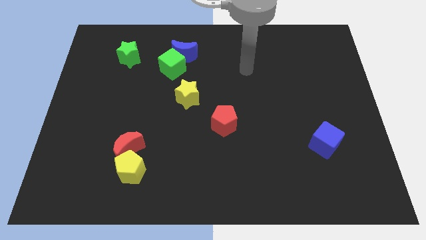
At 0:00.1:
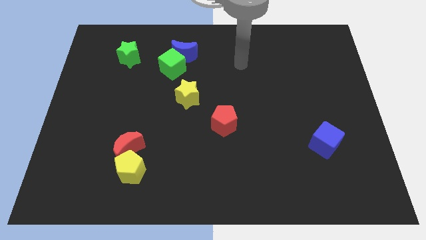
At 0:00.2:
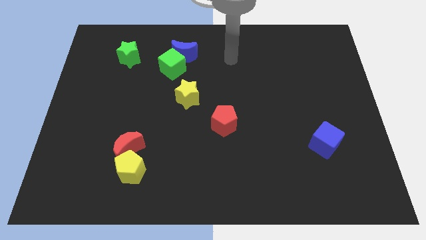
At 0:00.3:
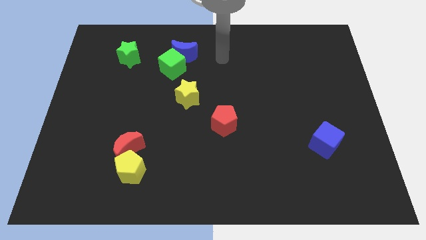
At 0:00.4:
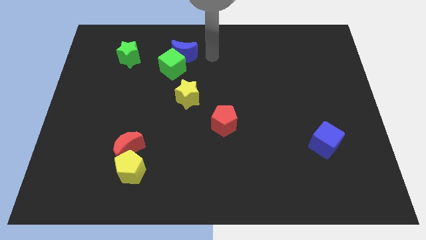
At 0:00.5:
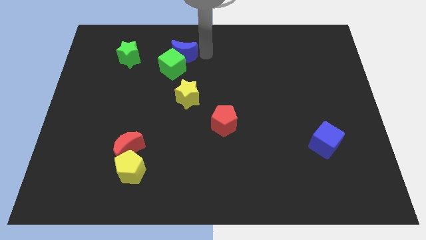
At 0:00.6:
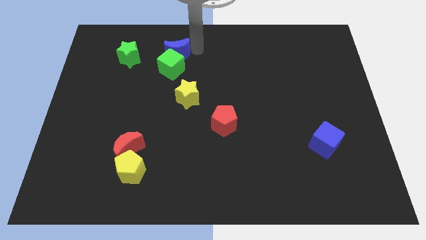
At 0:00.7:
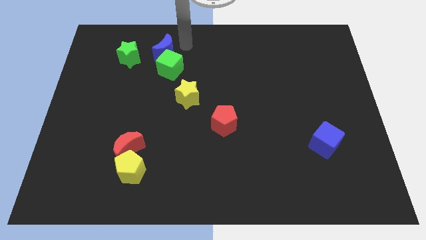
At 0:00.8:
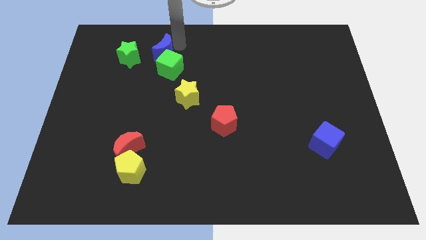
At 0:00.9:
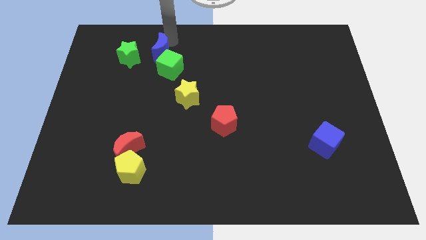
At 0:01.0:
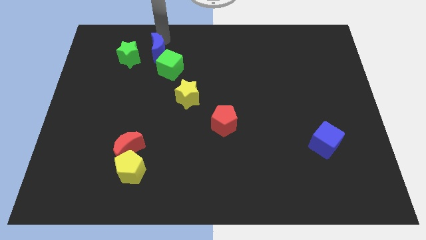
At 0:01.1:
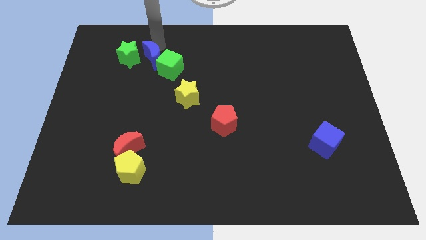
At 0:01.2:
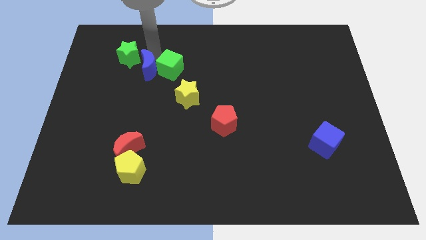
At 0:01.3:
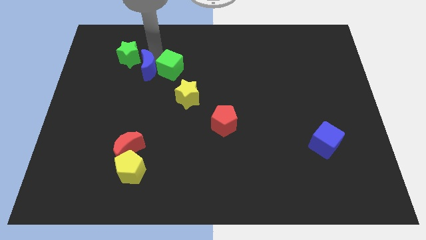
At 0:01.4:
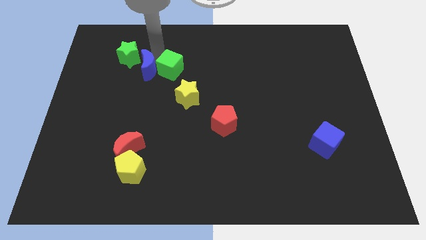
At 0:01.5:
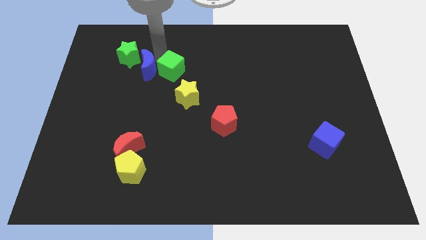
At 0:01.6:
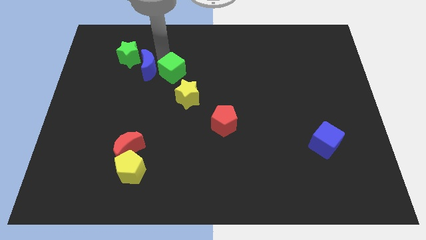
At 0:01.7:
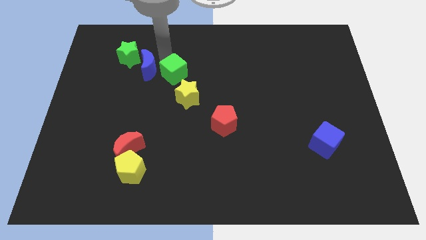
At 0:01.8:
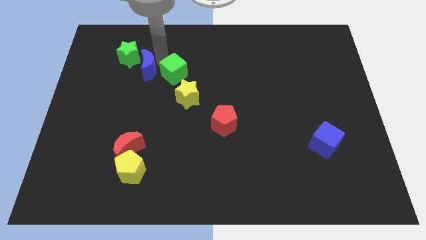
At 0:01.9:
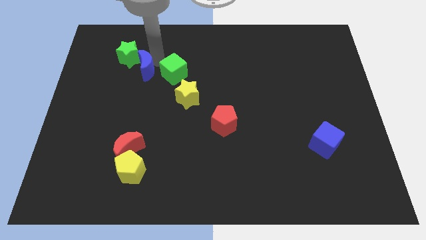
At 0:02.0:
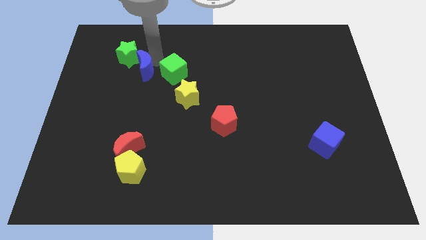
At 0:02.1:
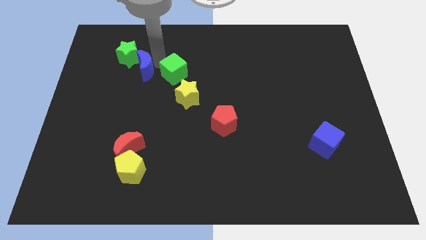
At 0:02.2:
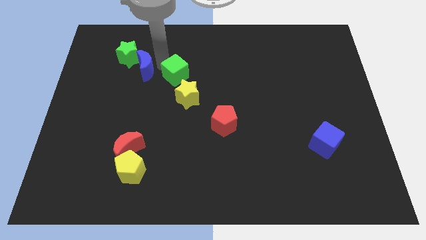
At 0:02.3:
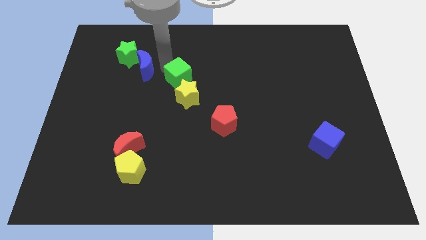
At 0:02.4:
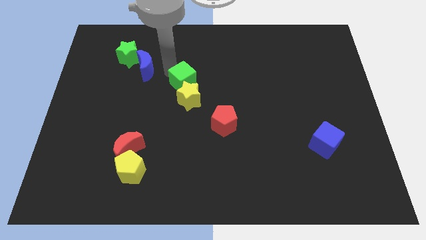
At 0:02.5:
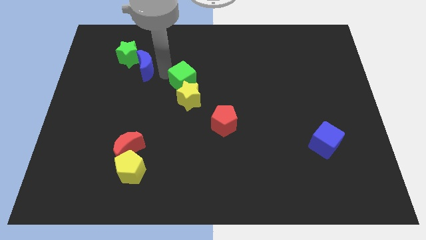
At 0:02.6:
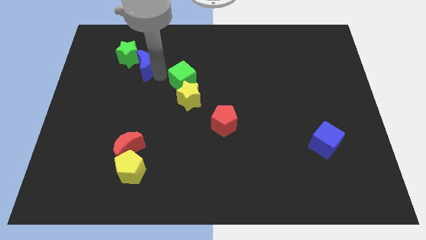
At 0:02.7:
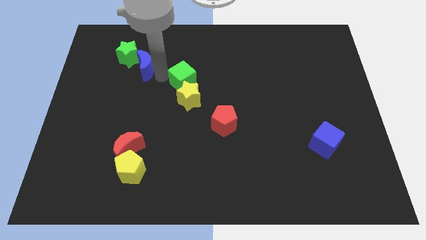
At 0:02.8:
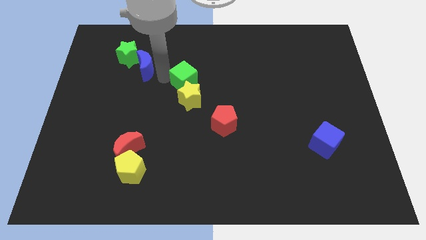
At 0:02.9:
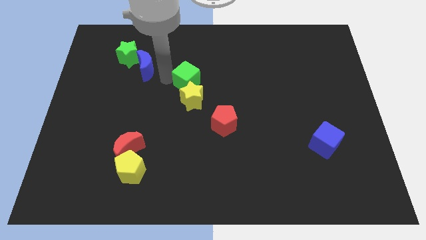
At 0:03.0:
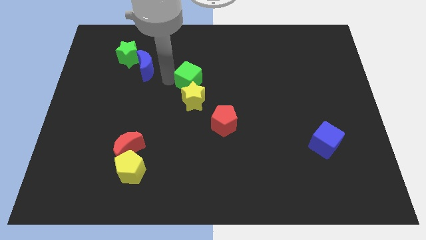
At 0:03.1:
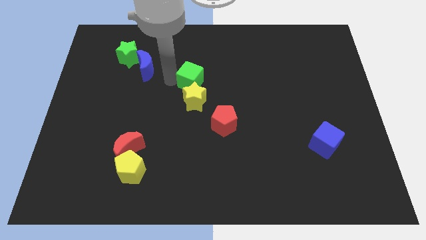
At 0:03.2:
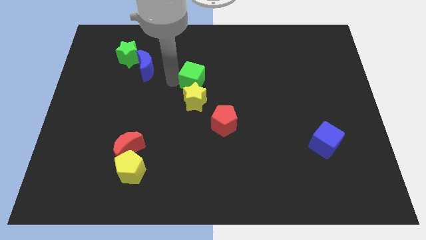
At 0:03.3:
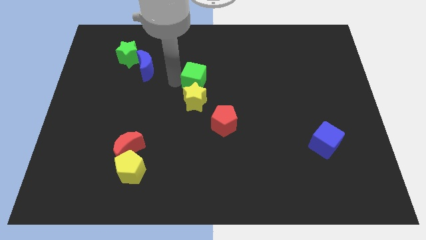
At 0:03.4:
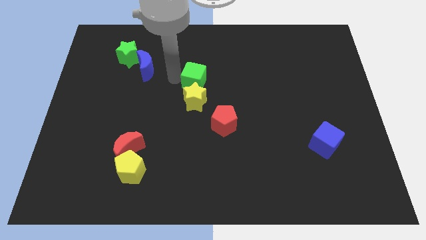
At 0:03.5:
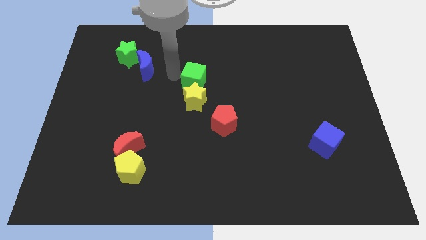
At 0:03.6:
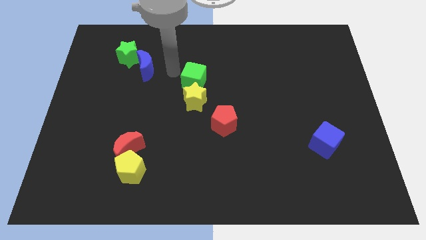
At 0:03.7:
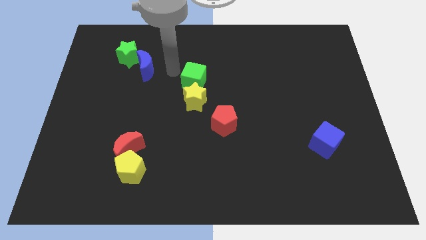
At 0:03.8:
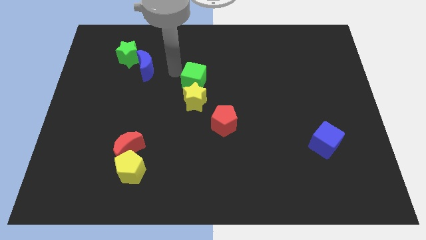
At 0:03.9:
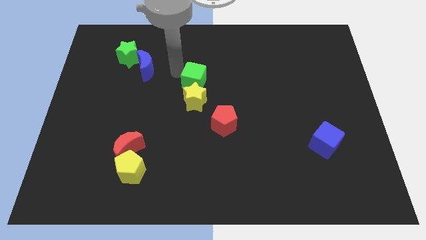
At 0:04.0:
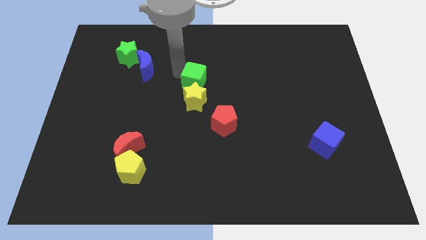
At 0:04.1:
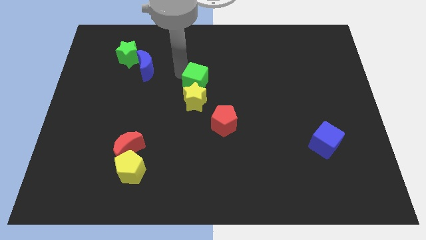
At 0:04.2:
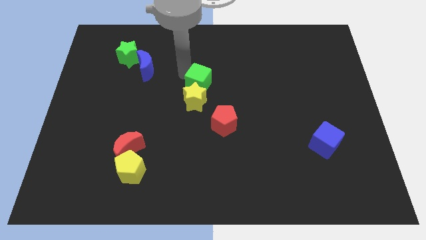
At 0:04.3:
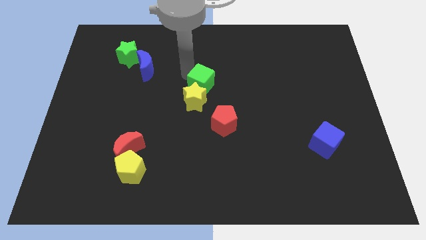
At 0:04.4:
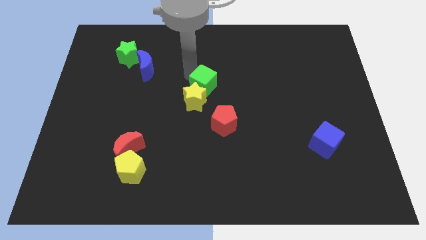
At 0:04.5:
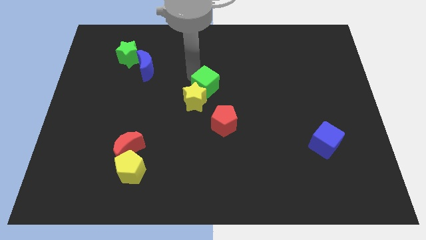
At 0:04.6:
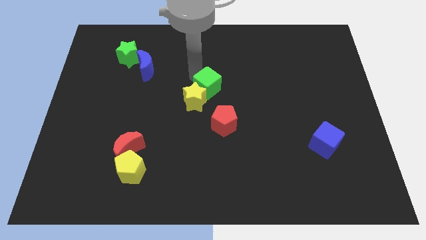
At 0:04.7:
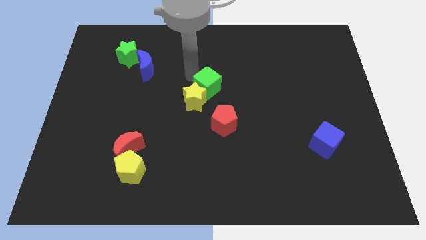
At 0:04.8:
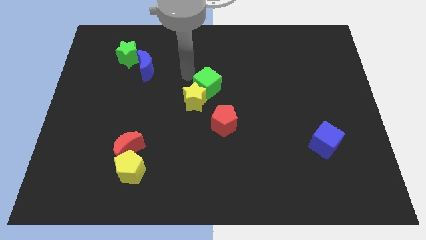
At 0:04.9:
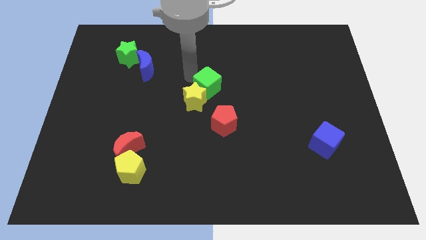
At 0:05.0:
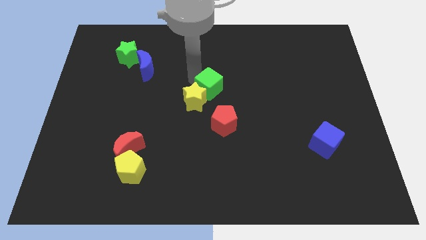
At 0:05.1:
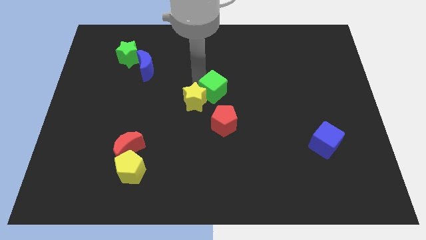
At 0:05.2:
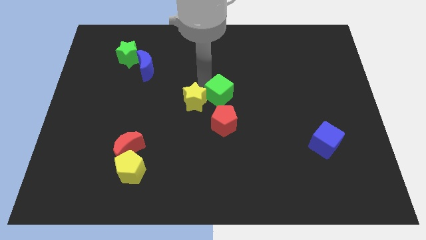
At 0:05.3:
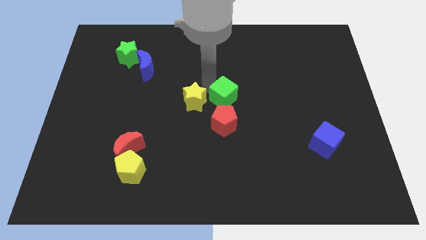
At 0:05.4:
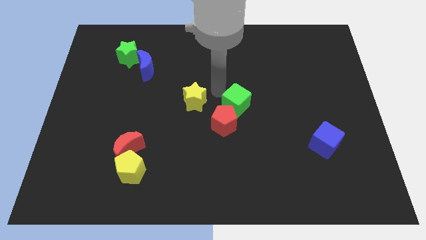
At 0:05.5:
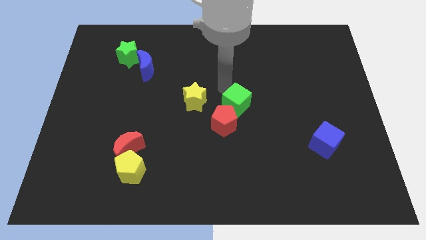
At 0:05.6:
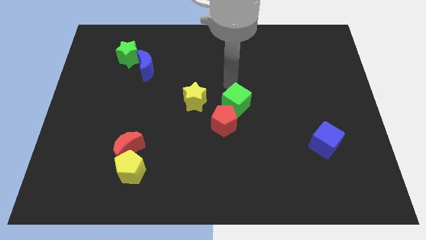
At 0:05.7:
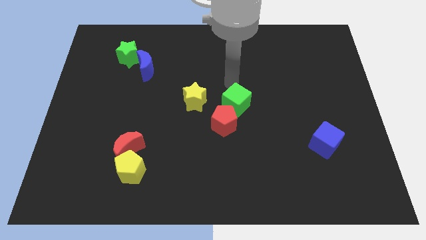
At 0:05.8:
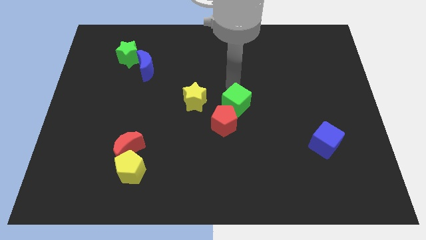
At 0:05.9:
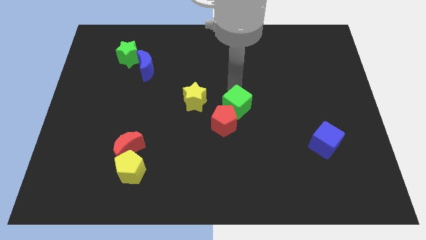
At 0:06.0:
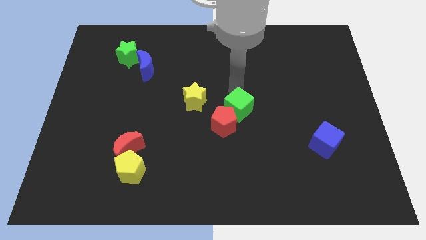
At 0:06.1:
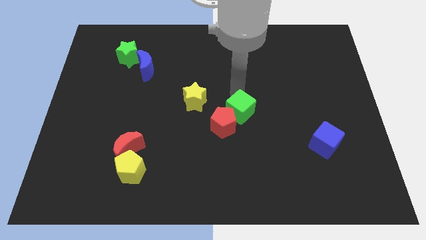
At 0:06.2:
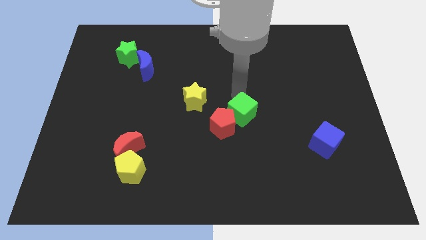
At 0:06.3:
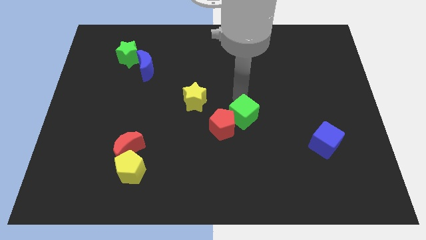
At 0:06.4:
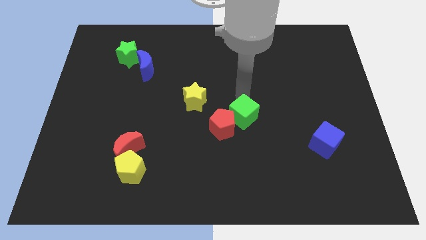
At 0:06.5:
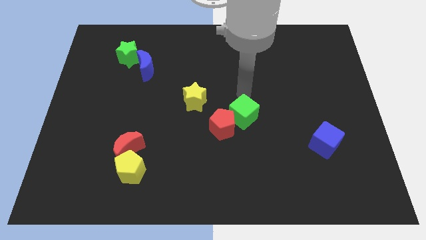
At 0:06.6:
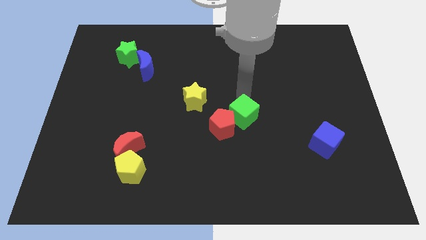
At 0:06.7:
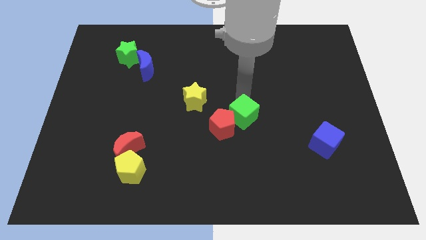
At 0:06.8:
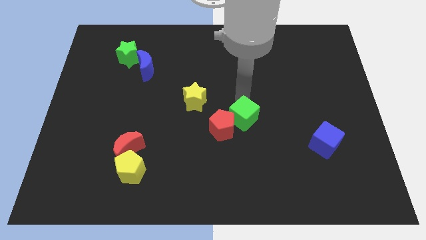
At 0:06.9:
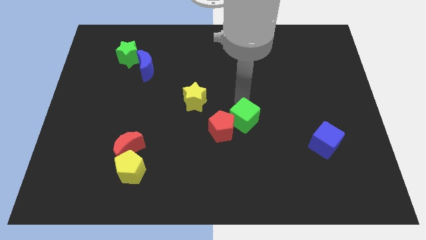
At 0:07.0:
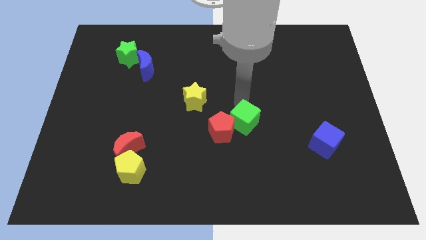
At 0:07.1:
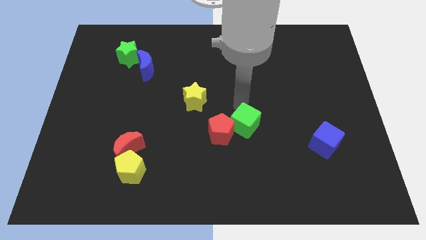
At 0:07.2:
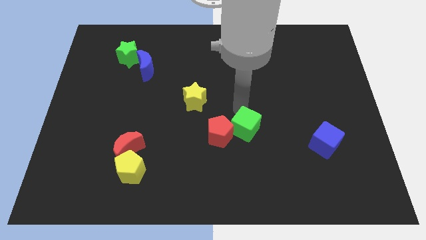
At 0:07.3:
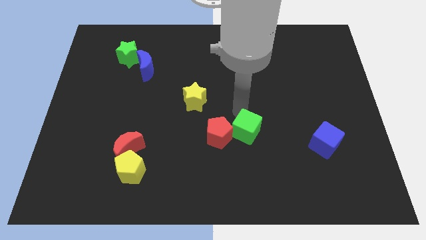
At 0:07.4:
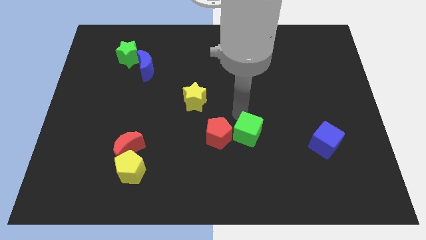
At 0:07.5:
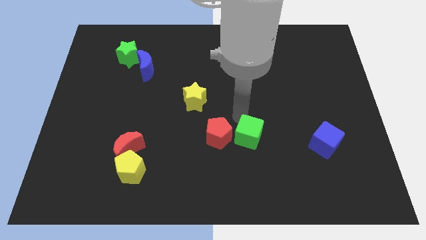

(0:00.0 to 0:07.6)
move the green cube to the bottom right side of the red pentagon
